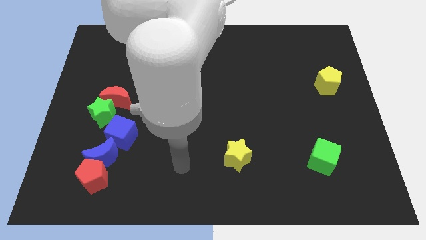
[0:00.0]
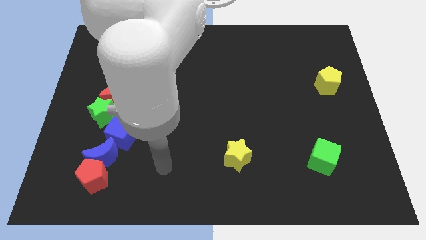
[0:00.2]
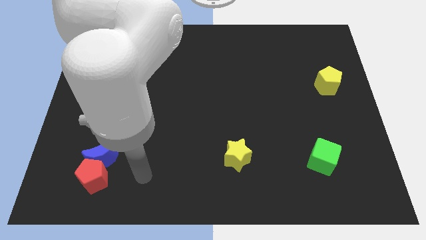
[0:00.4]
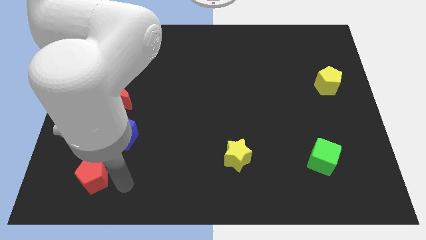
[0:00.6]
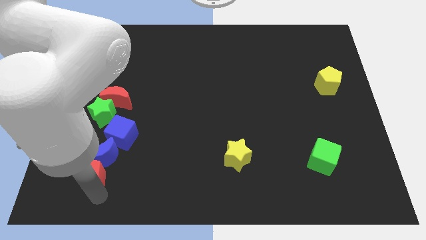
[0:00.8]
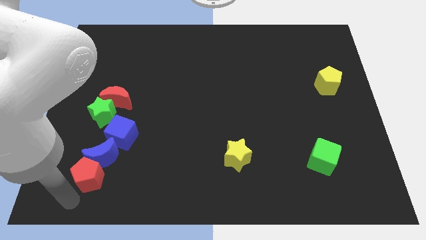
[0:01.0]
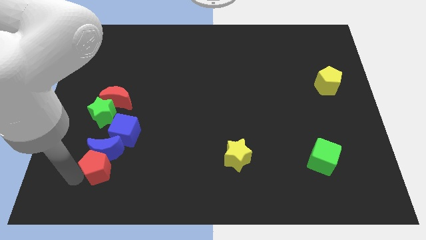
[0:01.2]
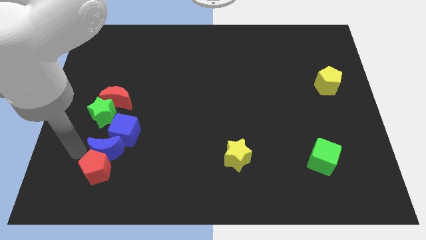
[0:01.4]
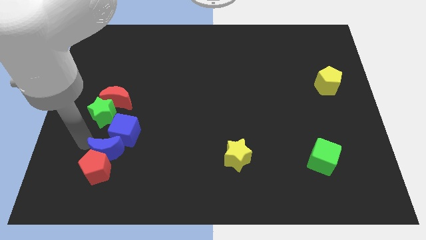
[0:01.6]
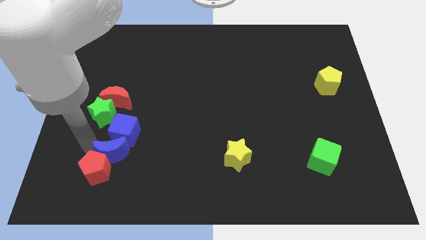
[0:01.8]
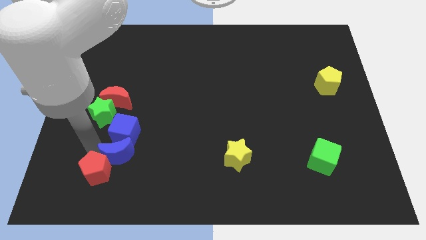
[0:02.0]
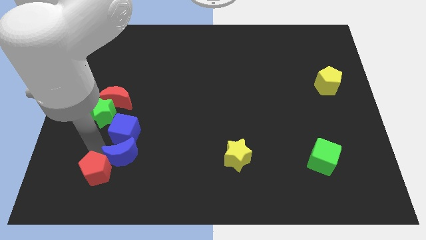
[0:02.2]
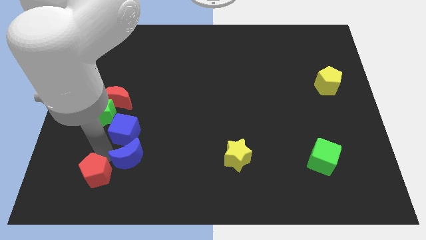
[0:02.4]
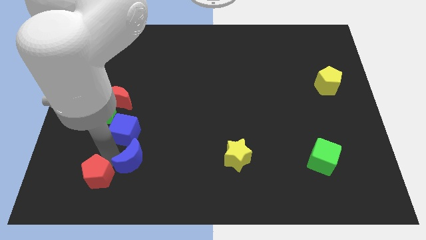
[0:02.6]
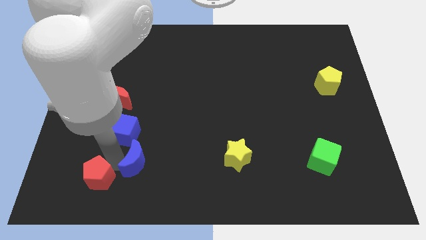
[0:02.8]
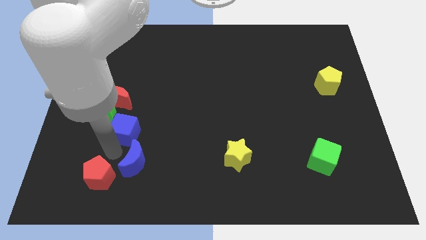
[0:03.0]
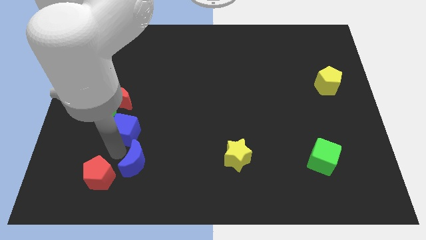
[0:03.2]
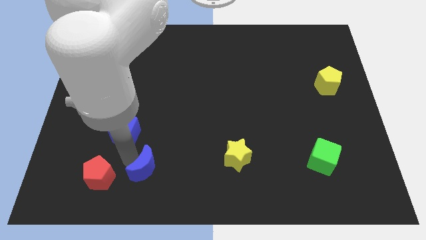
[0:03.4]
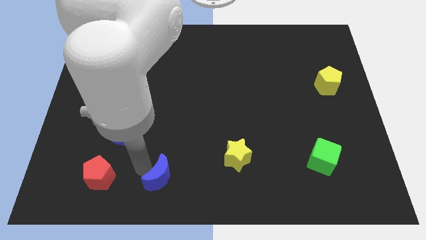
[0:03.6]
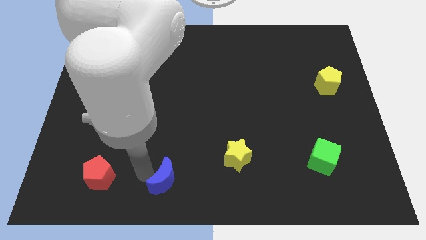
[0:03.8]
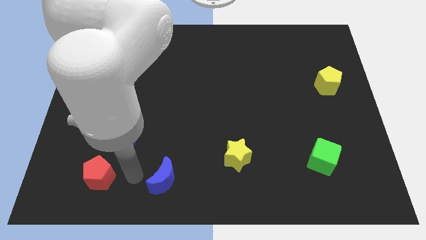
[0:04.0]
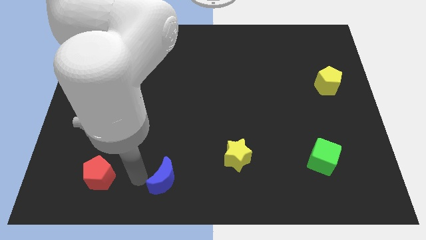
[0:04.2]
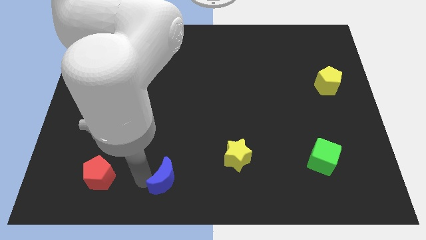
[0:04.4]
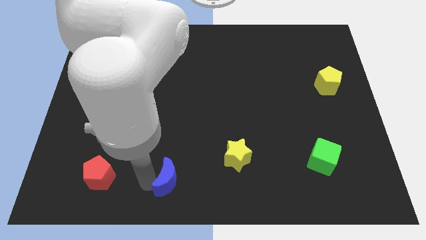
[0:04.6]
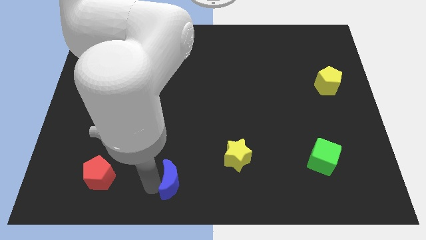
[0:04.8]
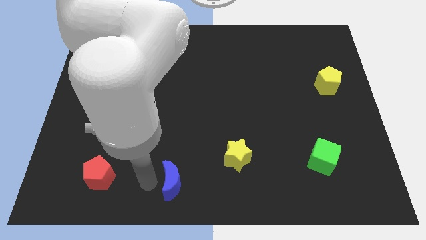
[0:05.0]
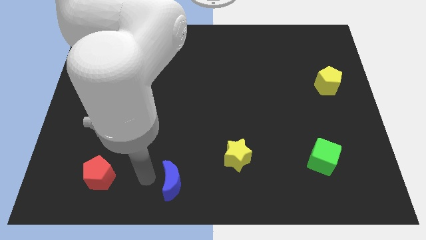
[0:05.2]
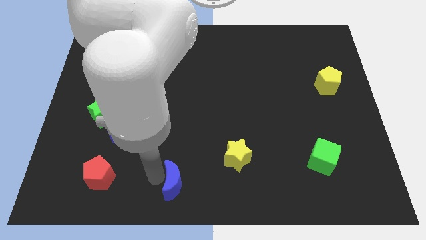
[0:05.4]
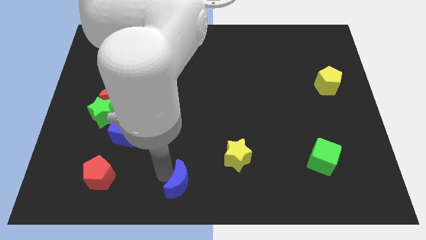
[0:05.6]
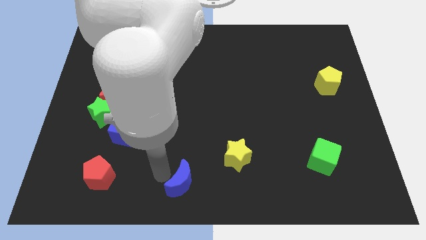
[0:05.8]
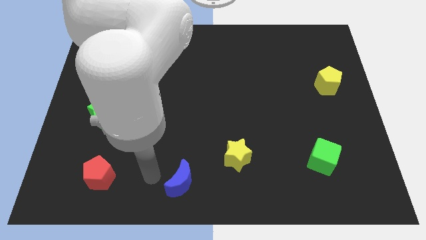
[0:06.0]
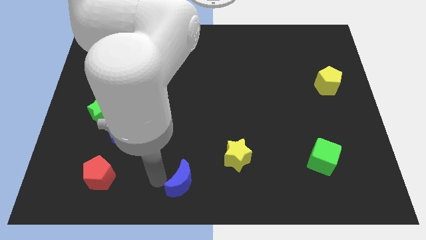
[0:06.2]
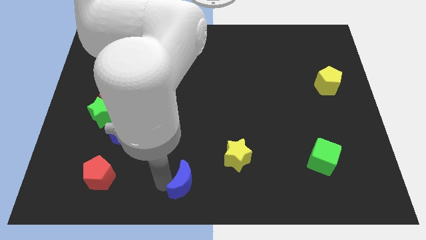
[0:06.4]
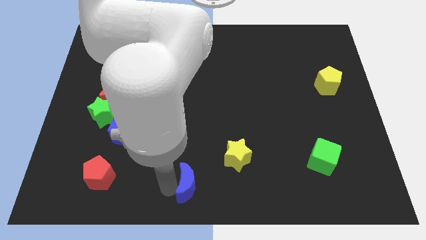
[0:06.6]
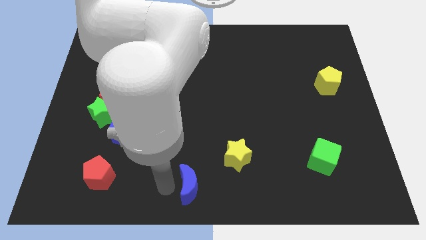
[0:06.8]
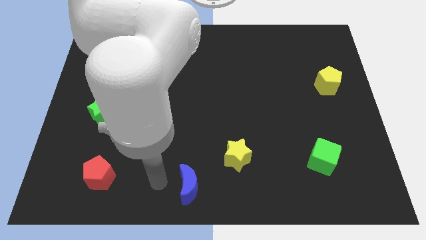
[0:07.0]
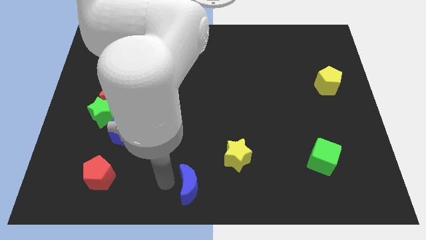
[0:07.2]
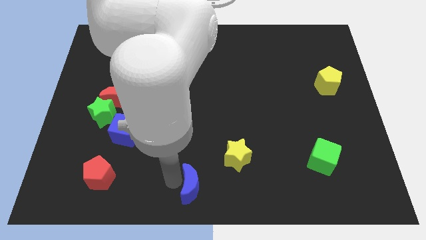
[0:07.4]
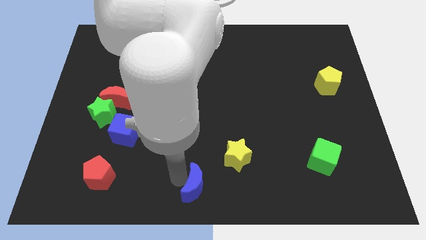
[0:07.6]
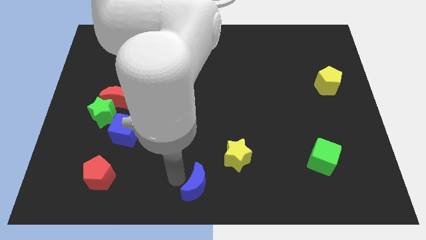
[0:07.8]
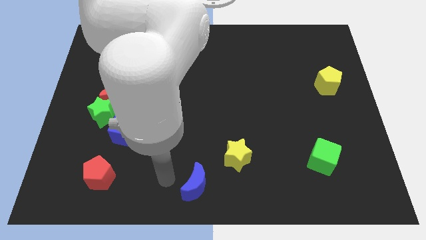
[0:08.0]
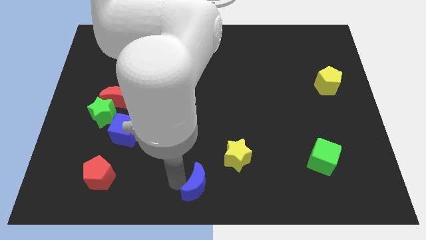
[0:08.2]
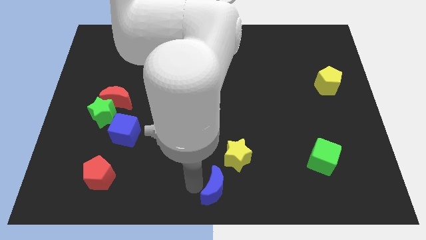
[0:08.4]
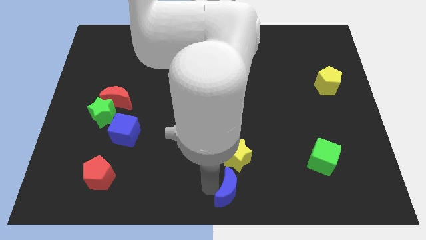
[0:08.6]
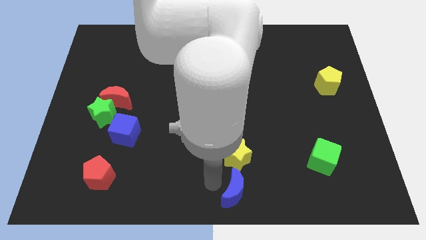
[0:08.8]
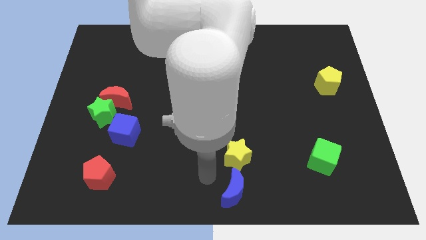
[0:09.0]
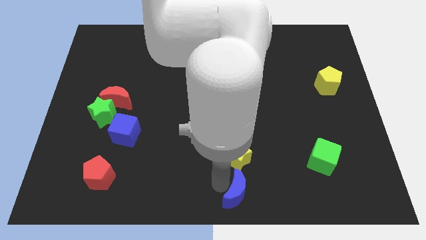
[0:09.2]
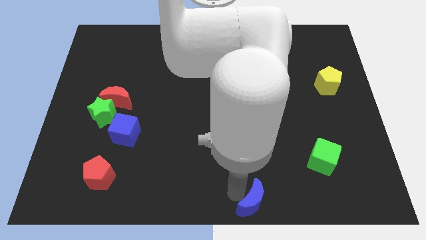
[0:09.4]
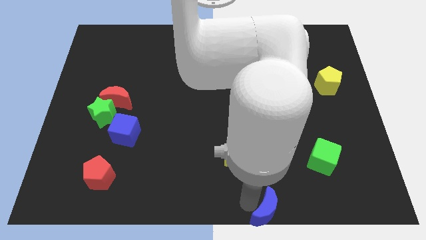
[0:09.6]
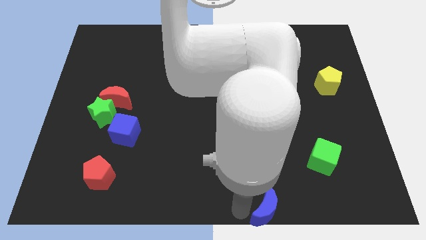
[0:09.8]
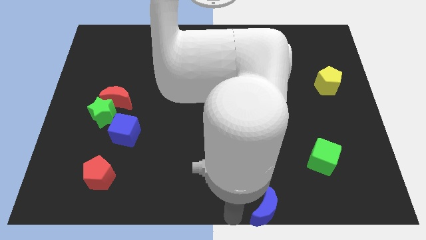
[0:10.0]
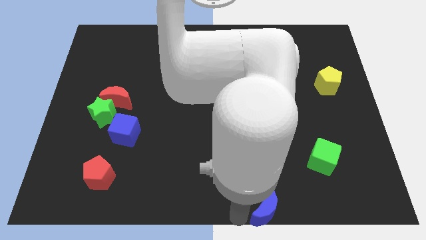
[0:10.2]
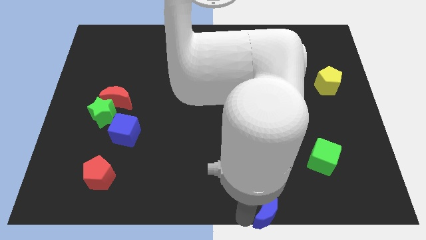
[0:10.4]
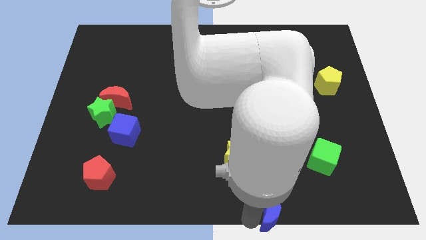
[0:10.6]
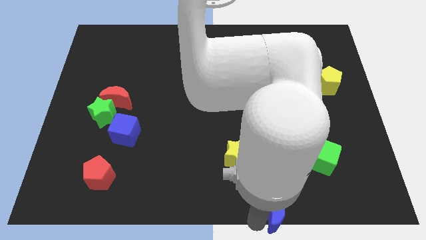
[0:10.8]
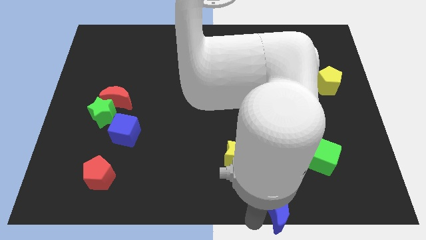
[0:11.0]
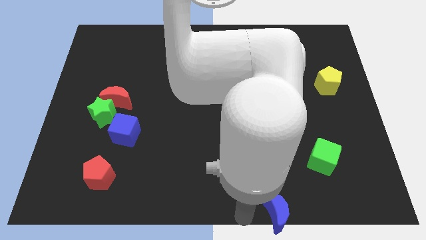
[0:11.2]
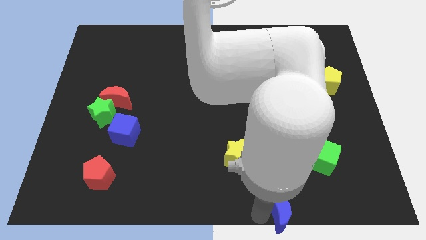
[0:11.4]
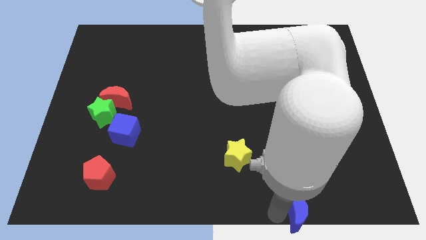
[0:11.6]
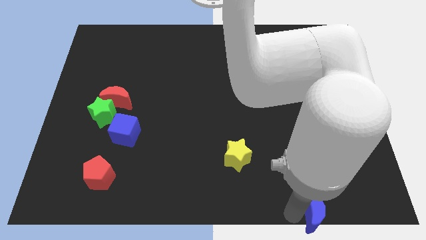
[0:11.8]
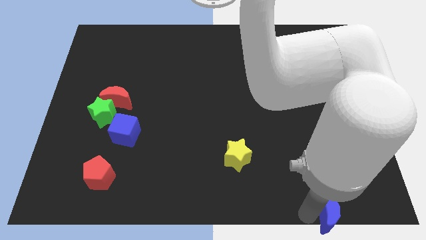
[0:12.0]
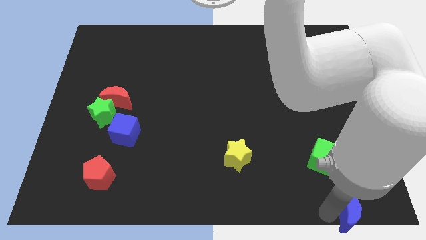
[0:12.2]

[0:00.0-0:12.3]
put the blue moon to the bottom right
